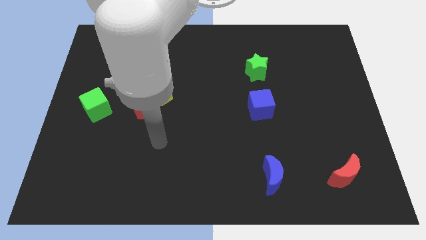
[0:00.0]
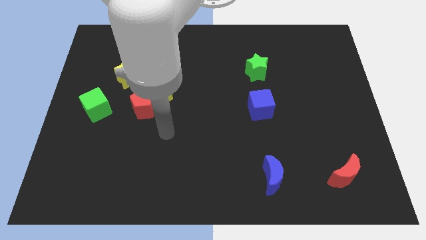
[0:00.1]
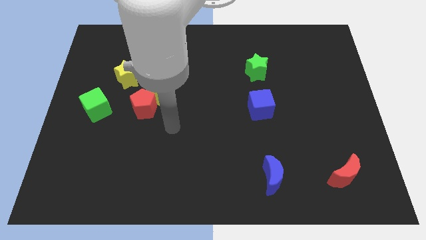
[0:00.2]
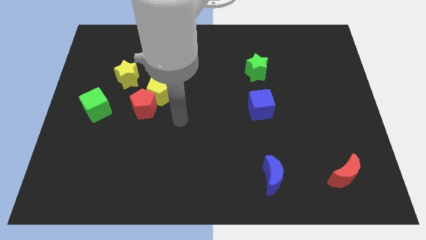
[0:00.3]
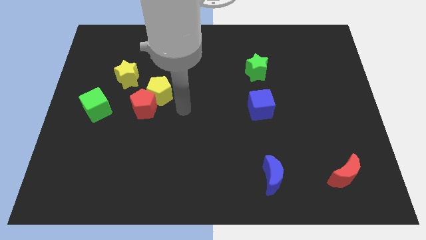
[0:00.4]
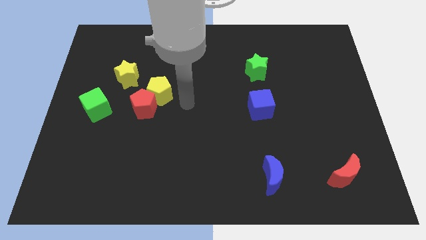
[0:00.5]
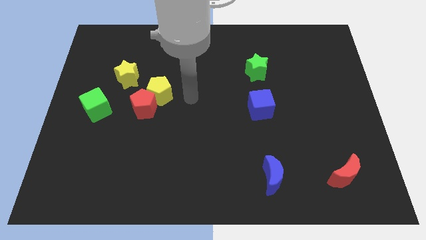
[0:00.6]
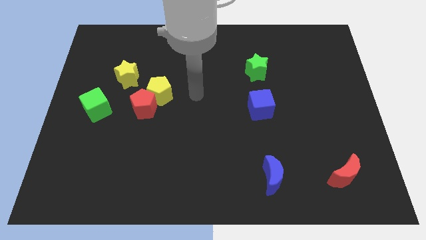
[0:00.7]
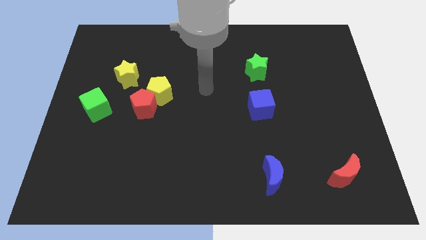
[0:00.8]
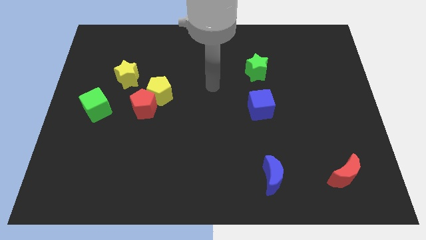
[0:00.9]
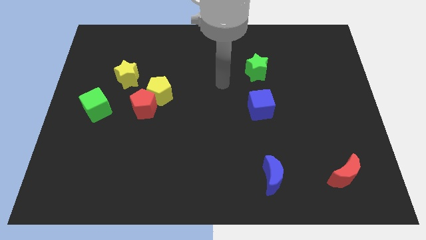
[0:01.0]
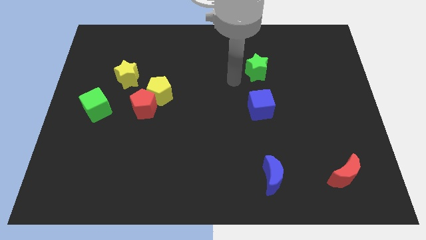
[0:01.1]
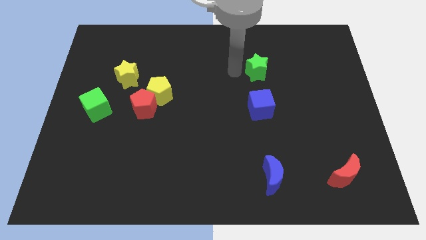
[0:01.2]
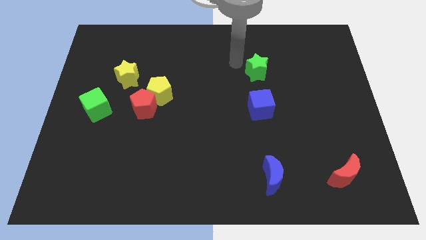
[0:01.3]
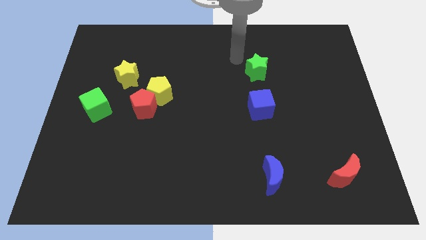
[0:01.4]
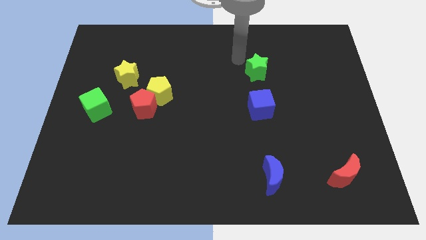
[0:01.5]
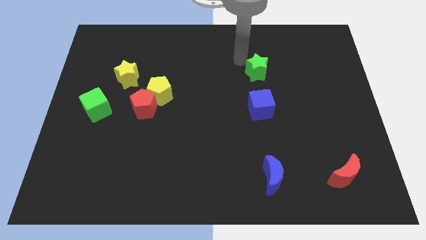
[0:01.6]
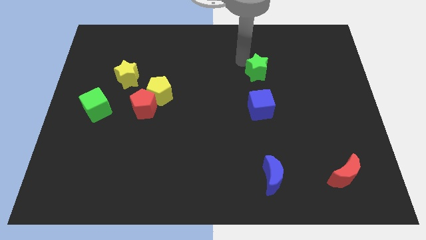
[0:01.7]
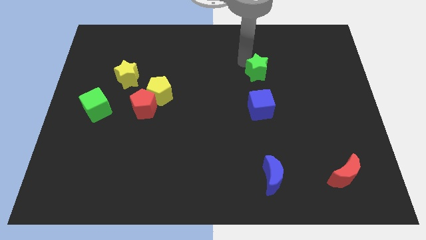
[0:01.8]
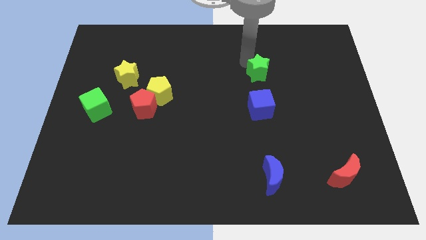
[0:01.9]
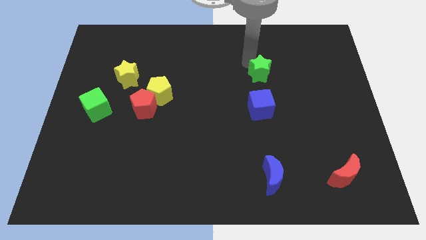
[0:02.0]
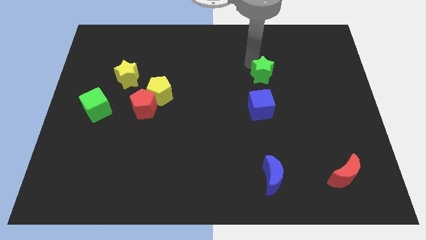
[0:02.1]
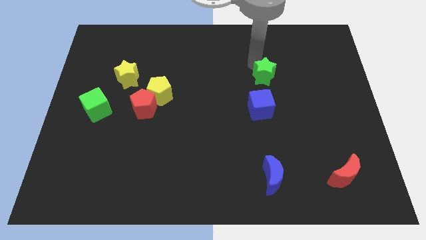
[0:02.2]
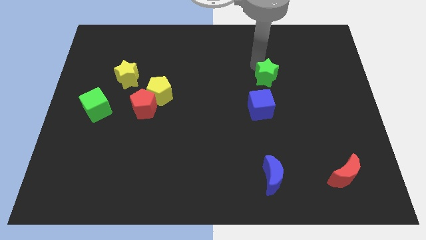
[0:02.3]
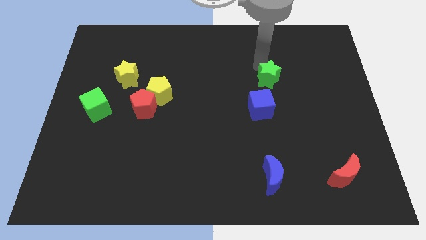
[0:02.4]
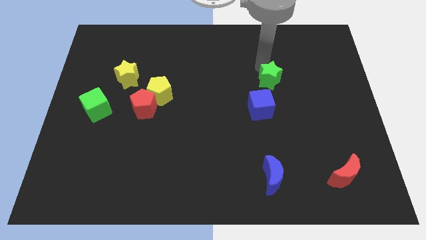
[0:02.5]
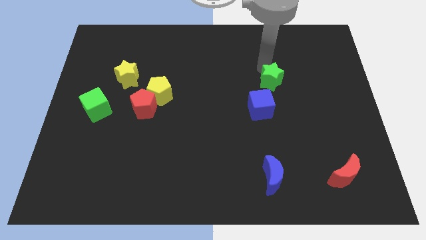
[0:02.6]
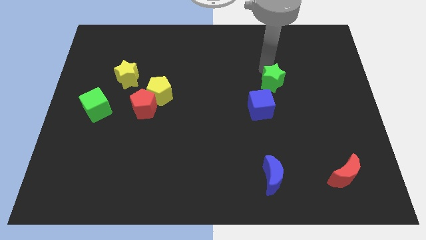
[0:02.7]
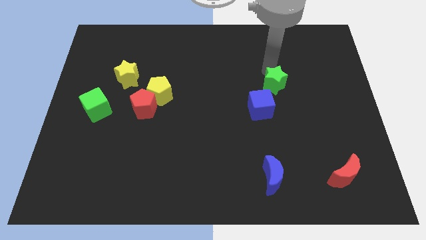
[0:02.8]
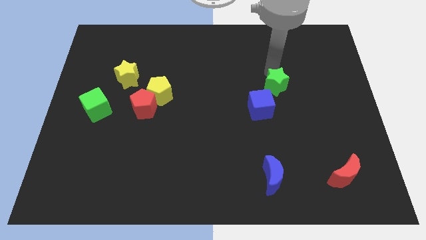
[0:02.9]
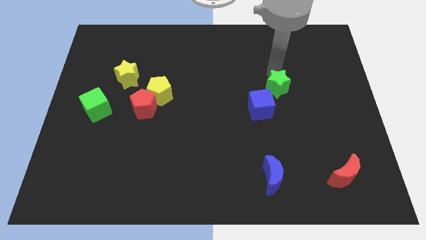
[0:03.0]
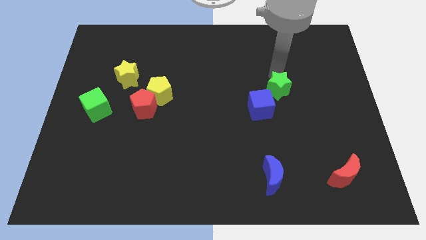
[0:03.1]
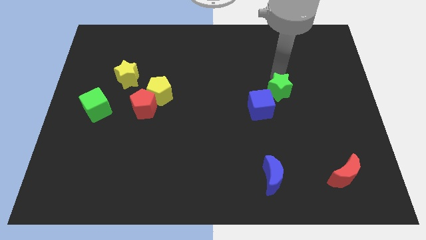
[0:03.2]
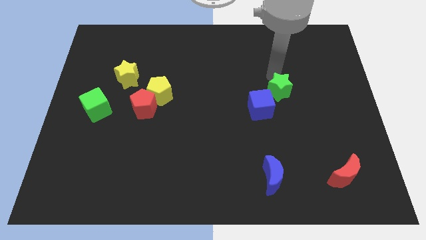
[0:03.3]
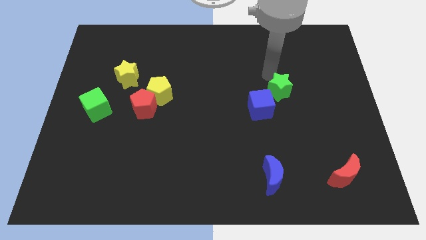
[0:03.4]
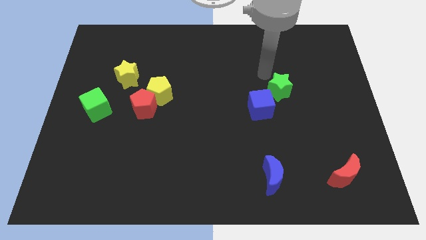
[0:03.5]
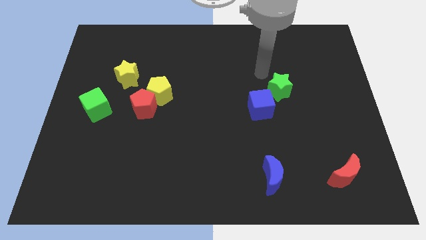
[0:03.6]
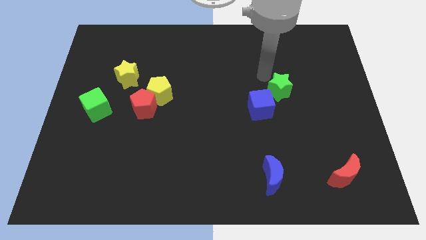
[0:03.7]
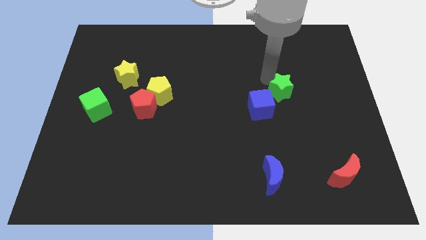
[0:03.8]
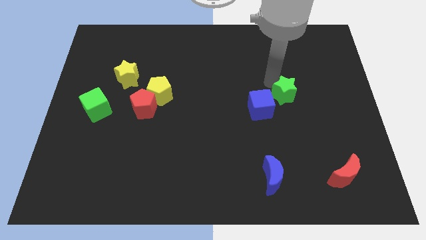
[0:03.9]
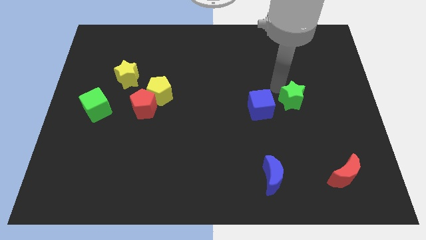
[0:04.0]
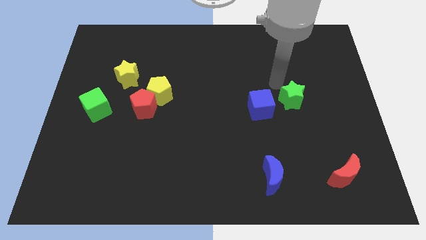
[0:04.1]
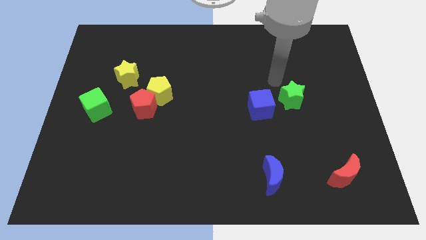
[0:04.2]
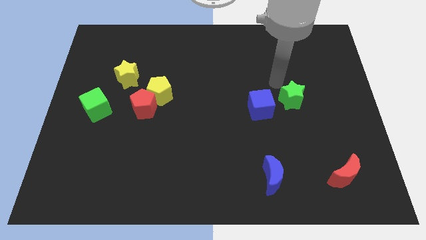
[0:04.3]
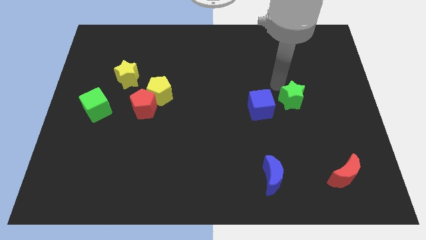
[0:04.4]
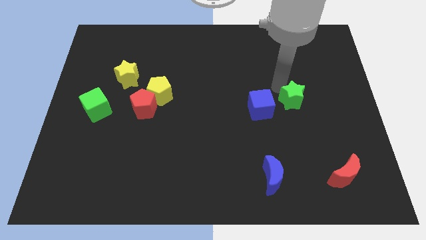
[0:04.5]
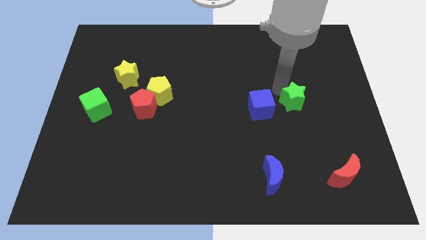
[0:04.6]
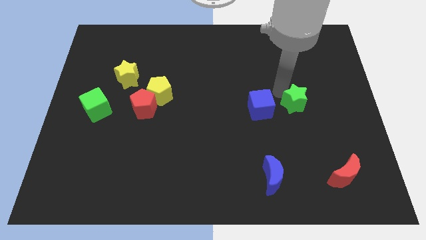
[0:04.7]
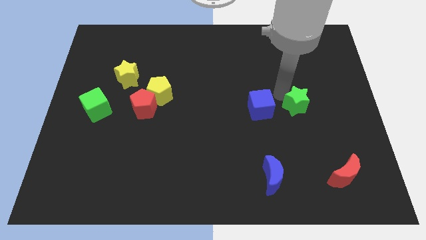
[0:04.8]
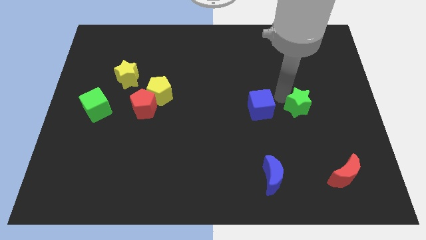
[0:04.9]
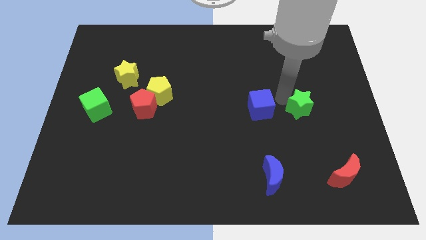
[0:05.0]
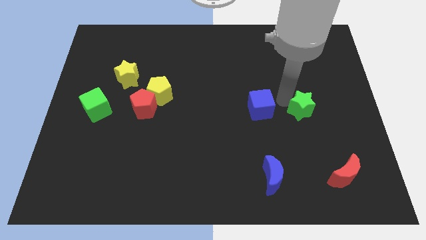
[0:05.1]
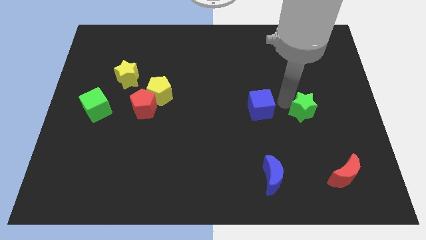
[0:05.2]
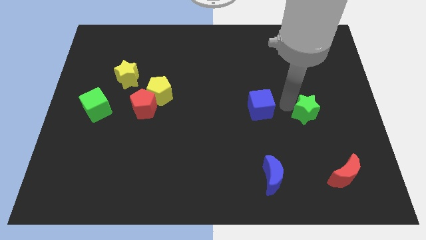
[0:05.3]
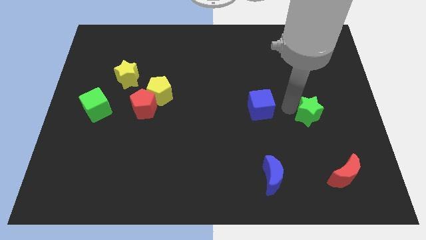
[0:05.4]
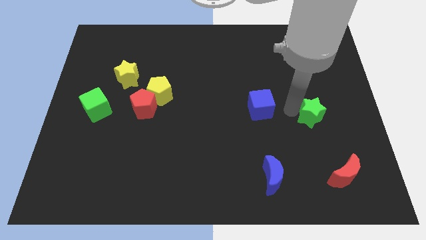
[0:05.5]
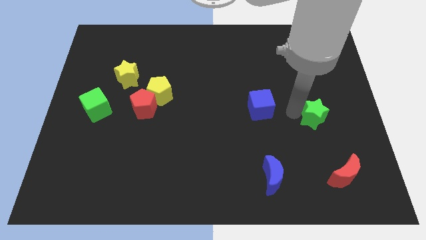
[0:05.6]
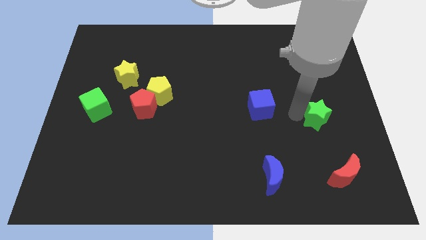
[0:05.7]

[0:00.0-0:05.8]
put the green star to the top side of the red moon

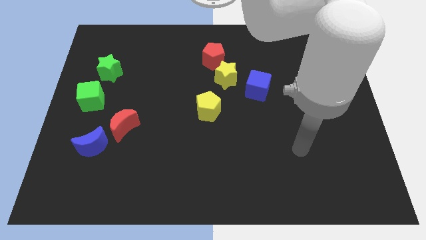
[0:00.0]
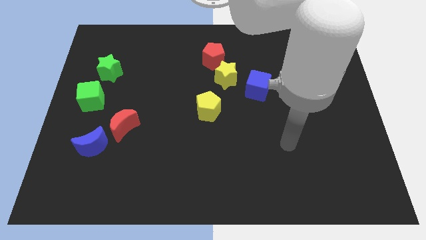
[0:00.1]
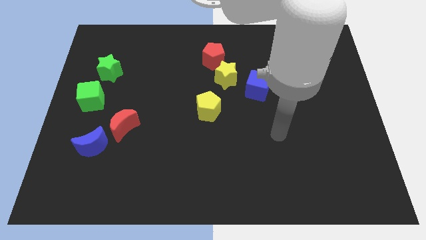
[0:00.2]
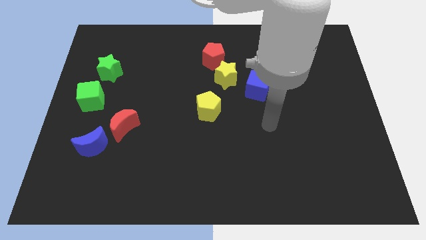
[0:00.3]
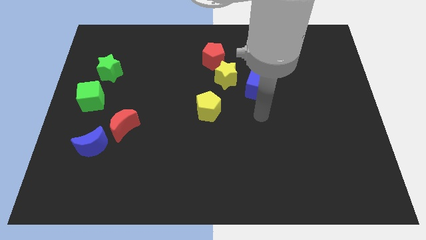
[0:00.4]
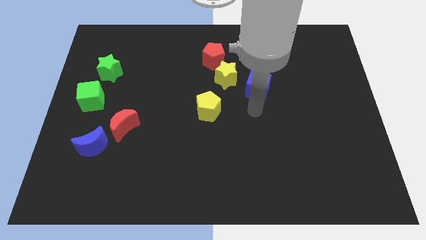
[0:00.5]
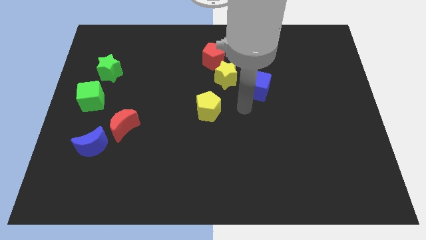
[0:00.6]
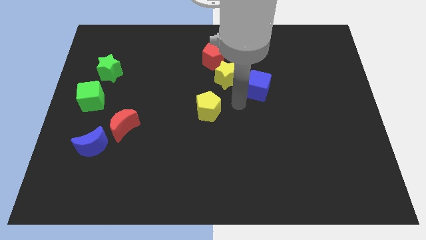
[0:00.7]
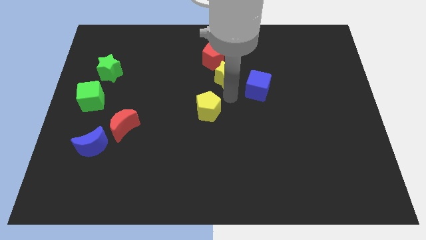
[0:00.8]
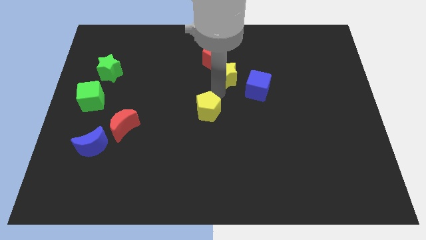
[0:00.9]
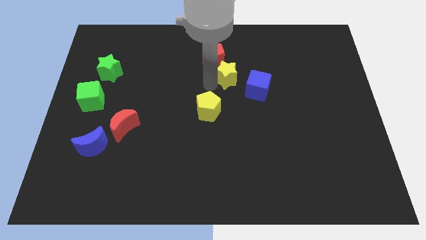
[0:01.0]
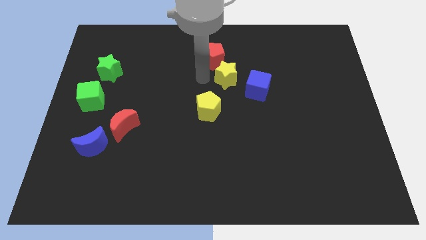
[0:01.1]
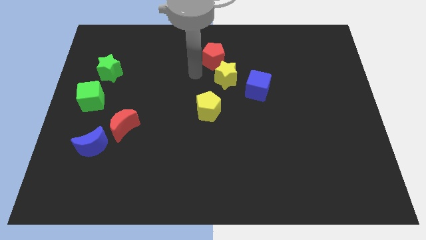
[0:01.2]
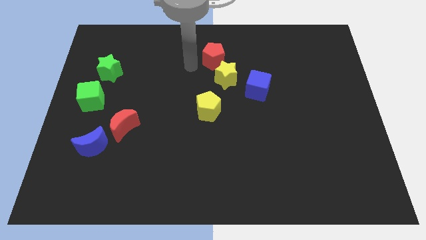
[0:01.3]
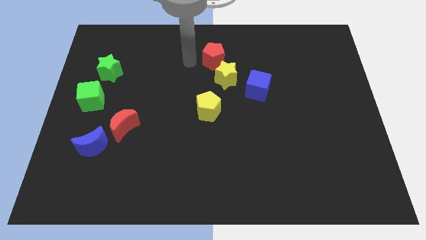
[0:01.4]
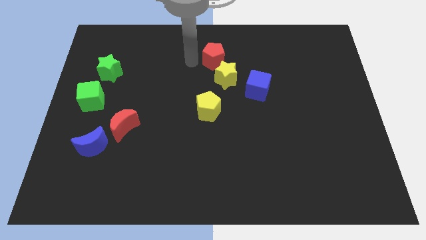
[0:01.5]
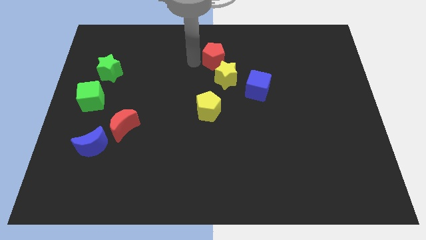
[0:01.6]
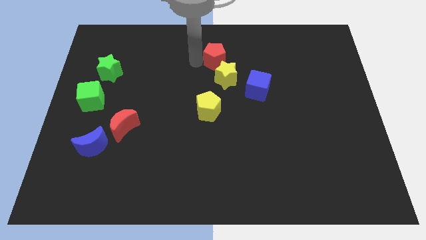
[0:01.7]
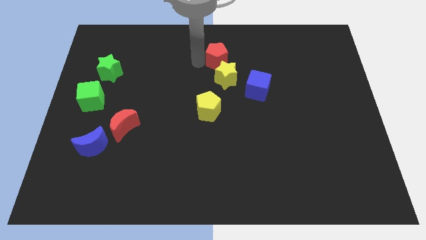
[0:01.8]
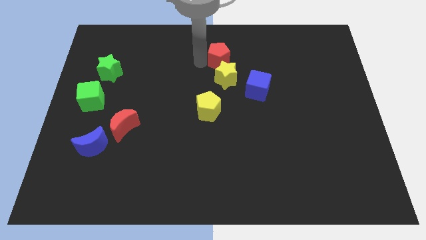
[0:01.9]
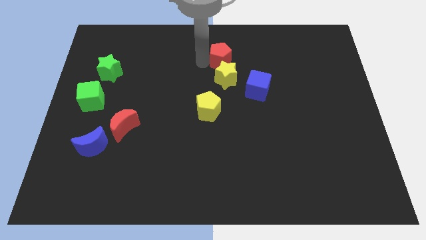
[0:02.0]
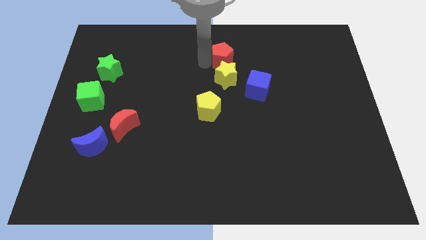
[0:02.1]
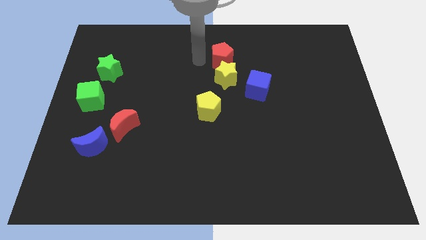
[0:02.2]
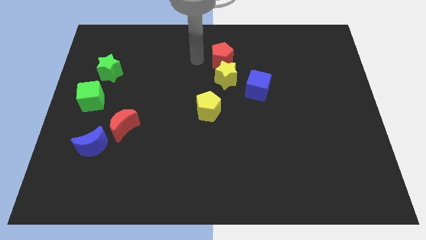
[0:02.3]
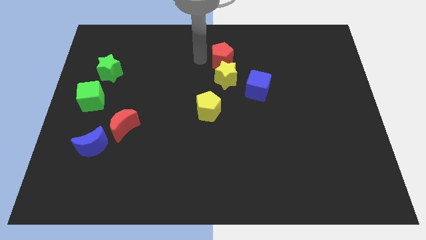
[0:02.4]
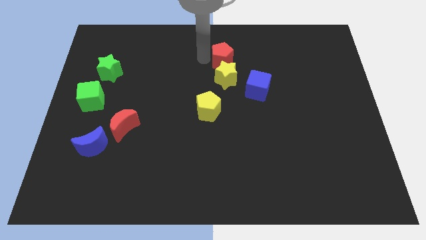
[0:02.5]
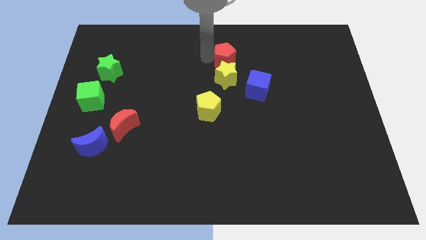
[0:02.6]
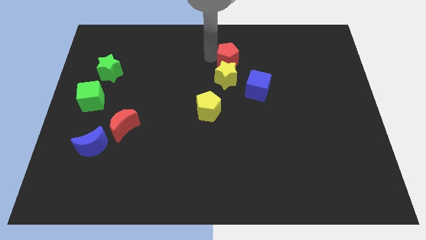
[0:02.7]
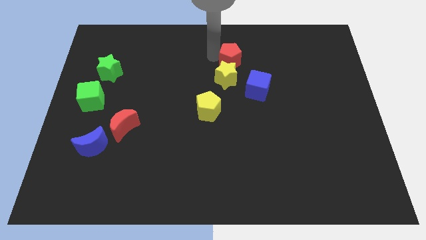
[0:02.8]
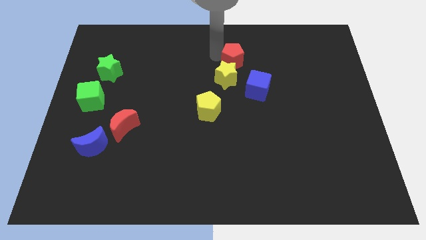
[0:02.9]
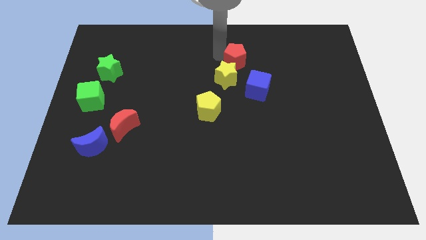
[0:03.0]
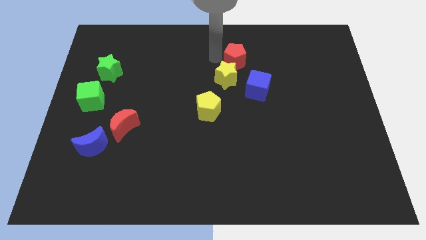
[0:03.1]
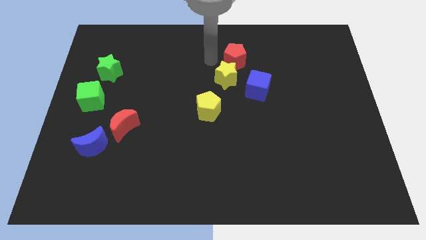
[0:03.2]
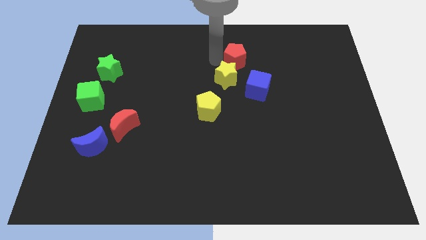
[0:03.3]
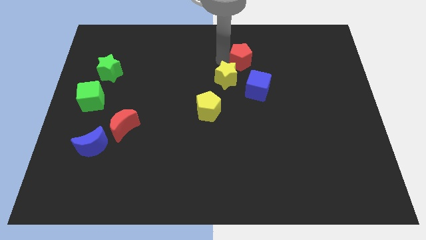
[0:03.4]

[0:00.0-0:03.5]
move the red pentagon to the top of the blue cube
